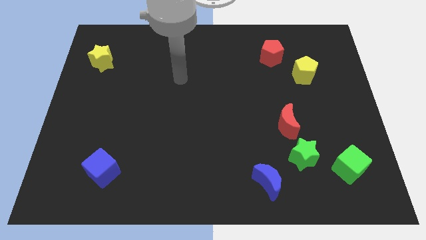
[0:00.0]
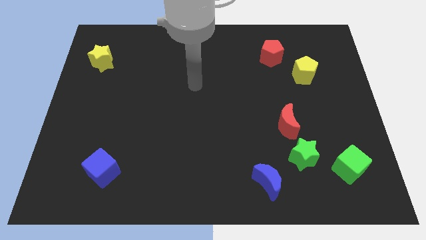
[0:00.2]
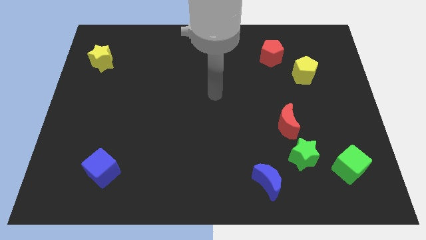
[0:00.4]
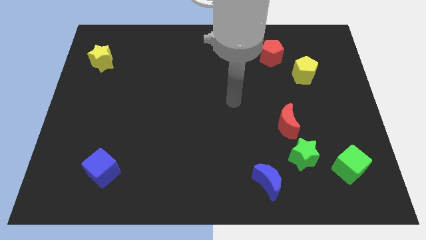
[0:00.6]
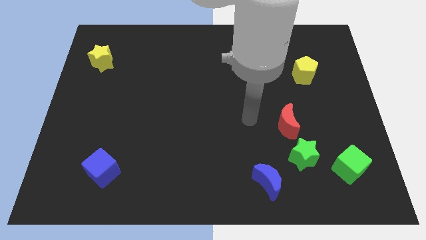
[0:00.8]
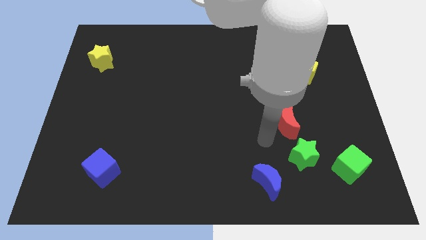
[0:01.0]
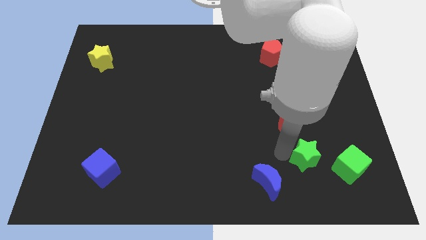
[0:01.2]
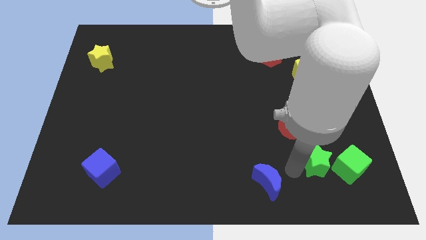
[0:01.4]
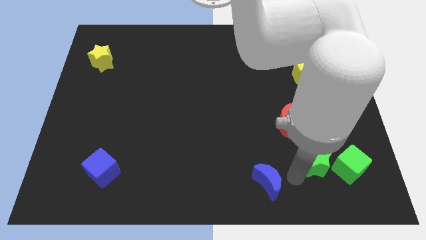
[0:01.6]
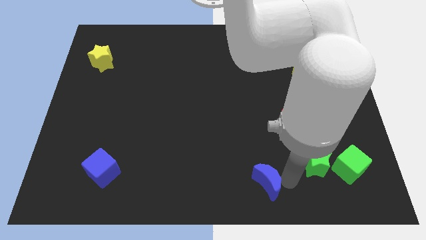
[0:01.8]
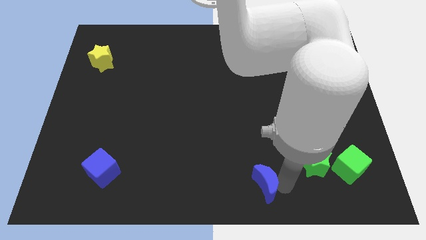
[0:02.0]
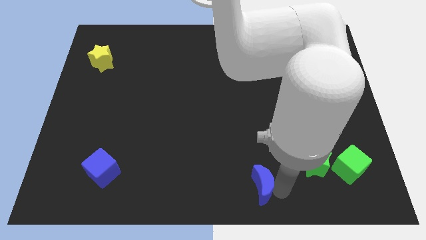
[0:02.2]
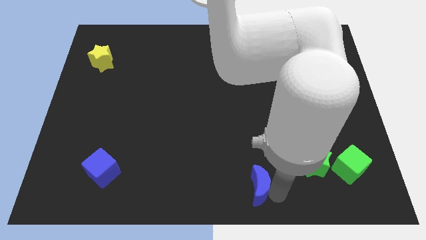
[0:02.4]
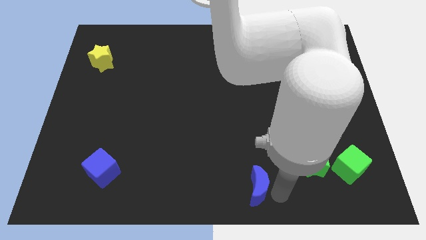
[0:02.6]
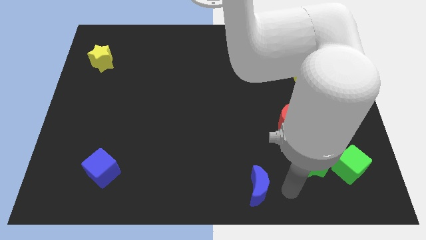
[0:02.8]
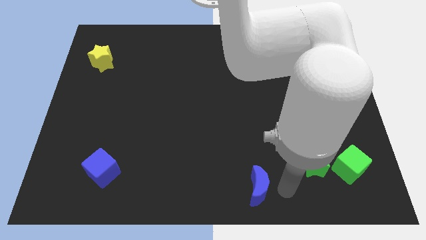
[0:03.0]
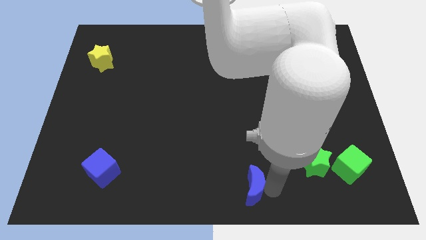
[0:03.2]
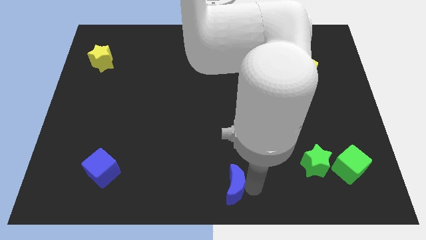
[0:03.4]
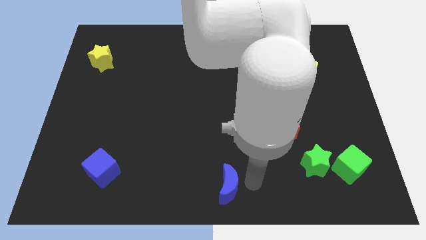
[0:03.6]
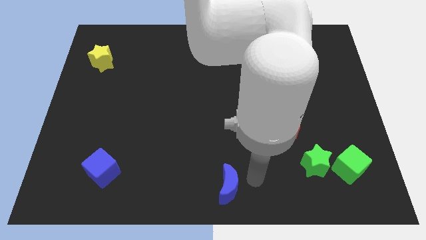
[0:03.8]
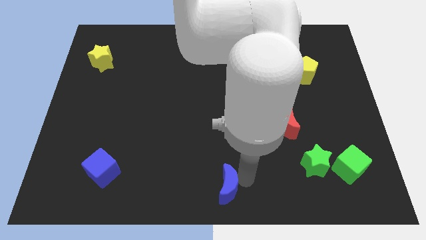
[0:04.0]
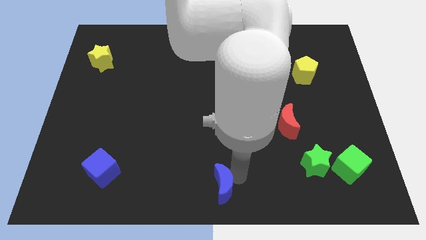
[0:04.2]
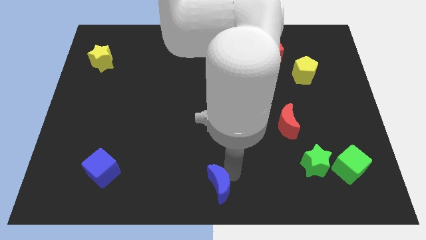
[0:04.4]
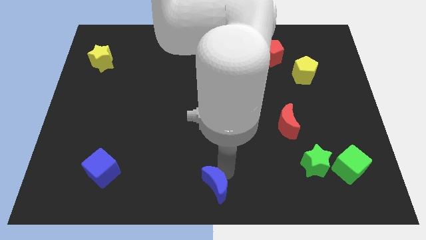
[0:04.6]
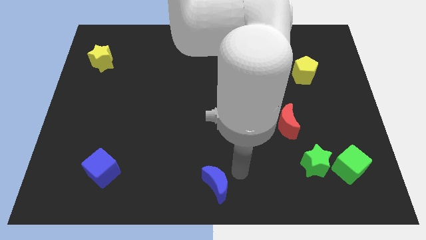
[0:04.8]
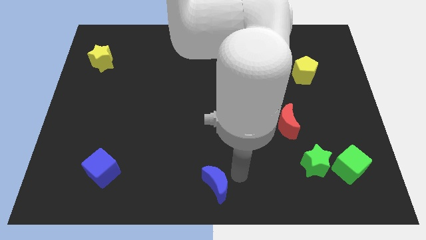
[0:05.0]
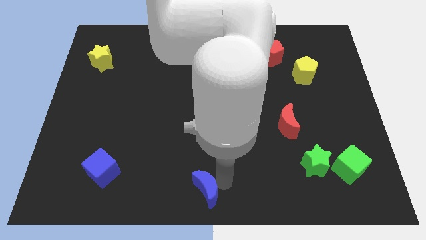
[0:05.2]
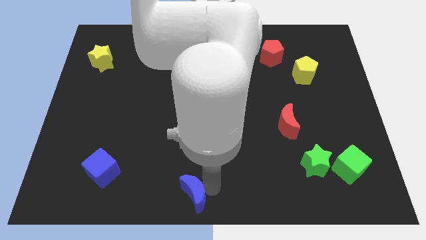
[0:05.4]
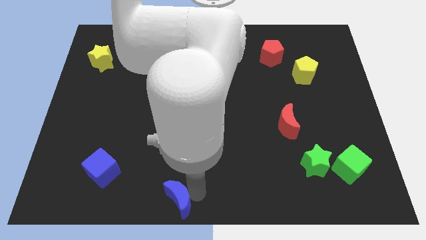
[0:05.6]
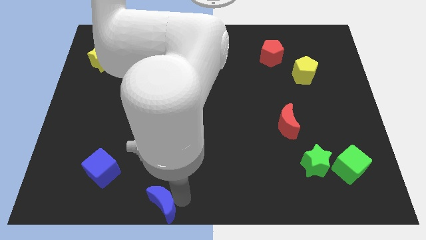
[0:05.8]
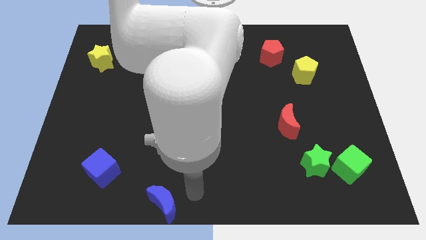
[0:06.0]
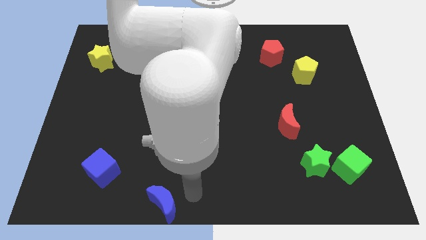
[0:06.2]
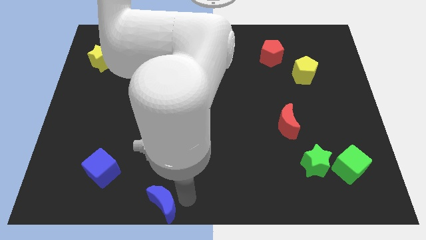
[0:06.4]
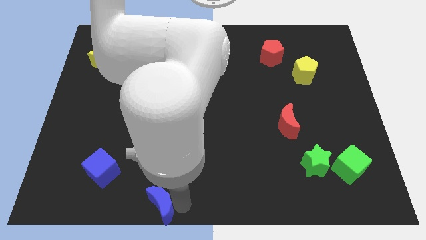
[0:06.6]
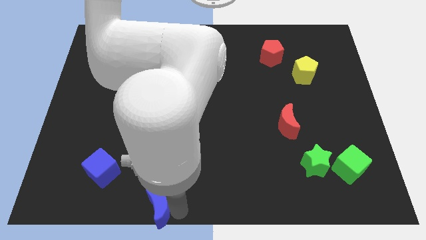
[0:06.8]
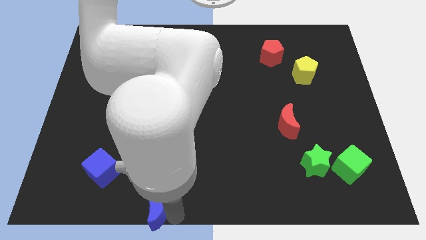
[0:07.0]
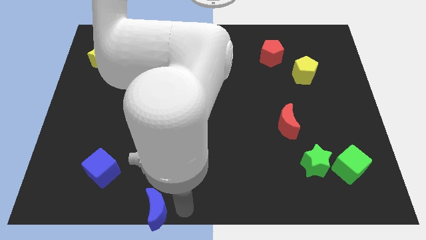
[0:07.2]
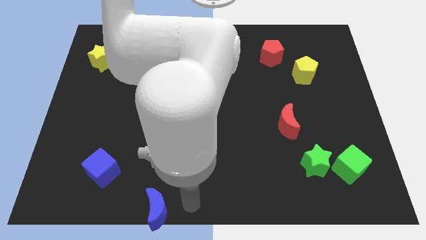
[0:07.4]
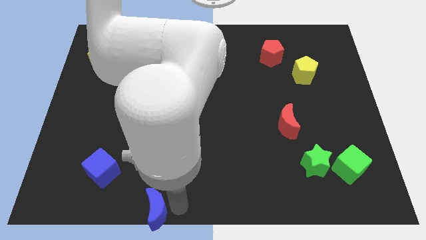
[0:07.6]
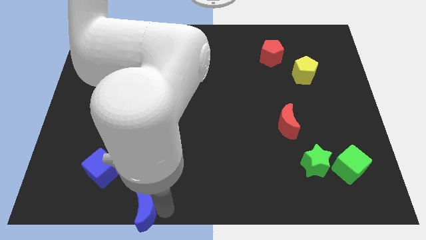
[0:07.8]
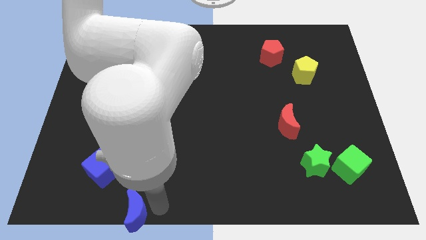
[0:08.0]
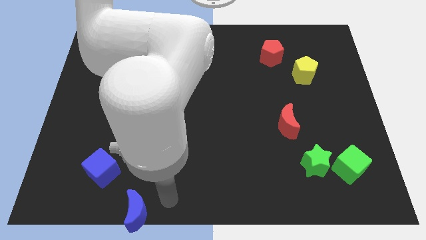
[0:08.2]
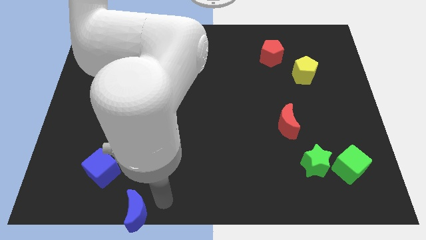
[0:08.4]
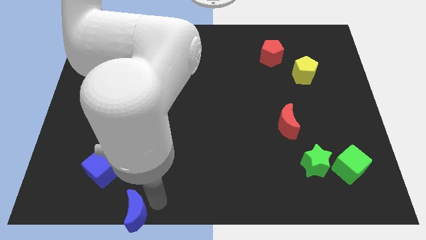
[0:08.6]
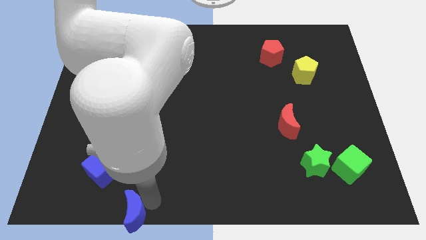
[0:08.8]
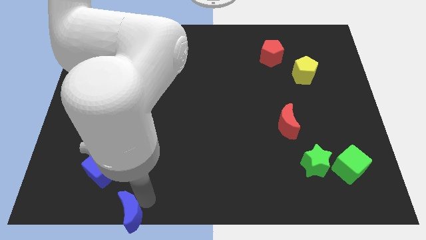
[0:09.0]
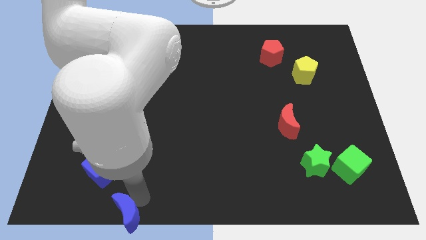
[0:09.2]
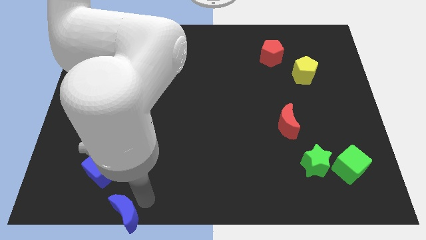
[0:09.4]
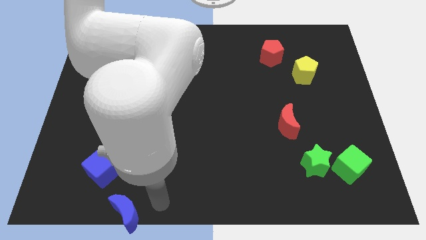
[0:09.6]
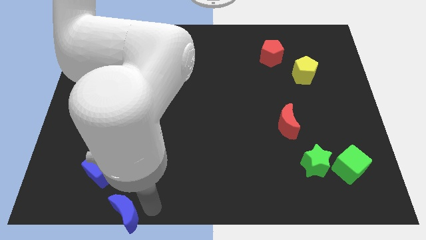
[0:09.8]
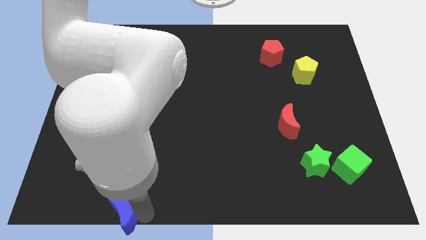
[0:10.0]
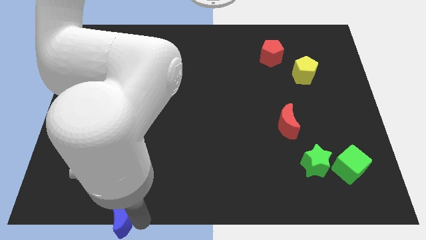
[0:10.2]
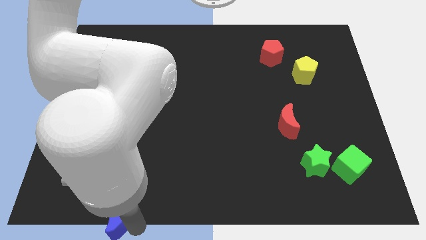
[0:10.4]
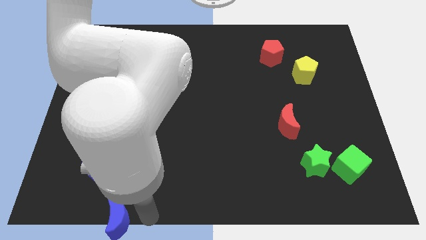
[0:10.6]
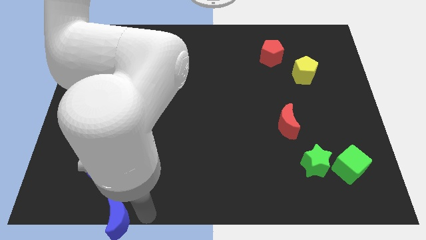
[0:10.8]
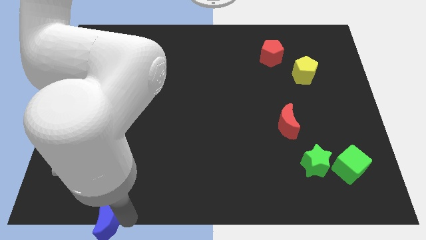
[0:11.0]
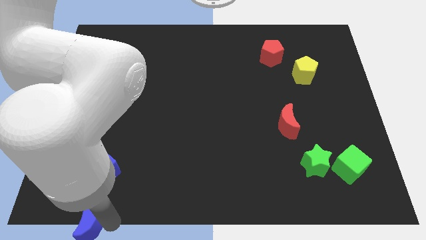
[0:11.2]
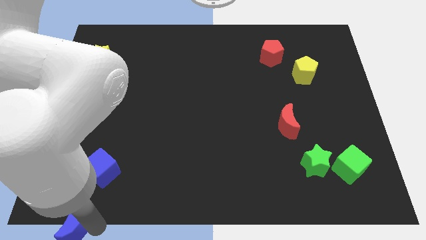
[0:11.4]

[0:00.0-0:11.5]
push the blue moon to the lower left corner

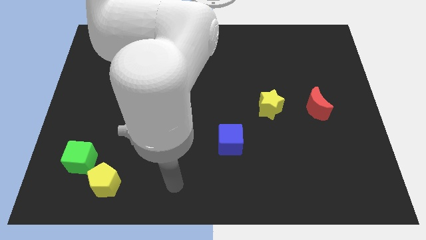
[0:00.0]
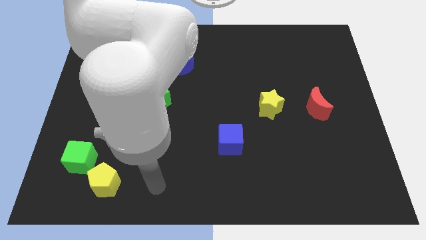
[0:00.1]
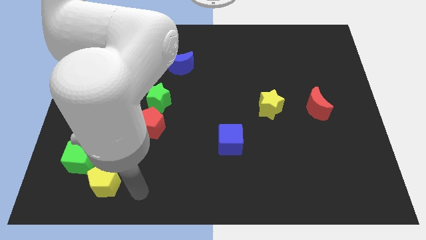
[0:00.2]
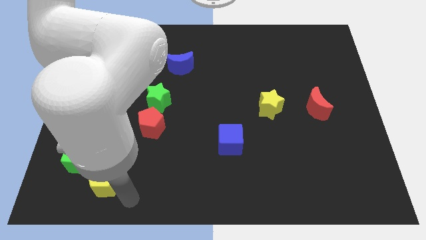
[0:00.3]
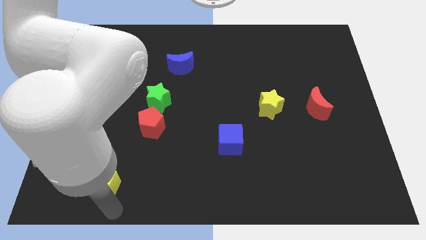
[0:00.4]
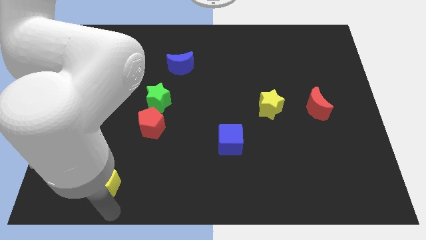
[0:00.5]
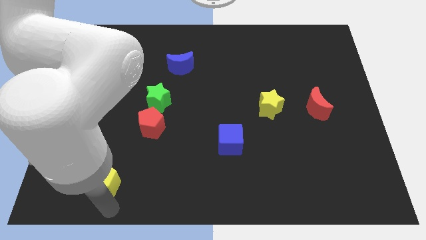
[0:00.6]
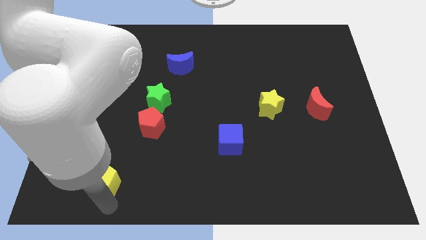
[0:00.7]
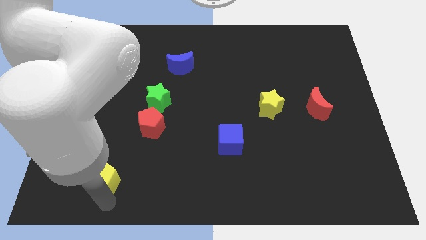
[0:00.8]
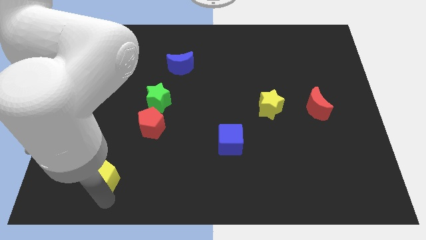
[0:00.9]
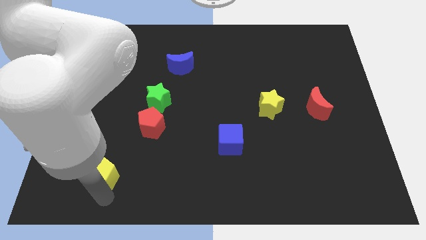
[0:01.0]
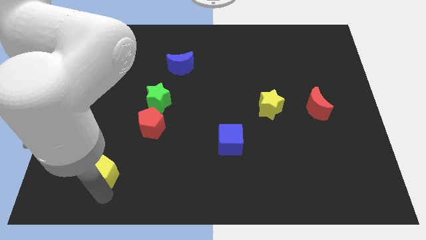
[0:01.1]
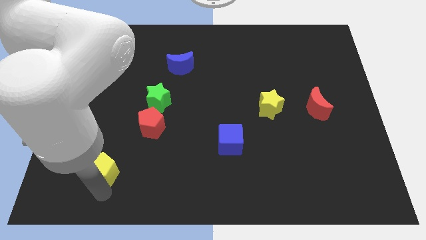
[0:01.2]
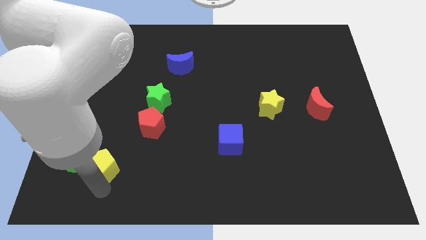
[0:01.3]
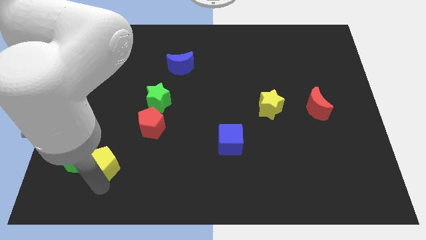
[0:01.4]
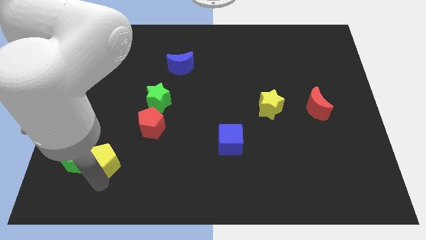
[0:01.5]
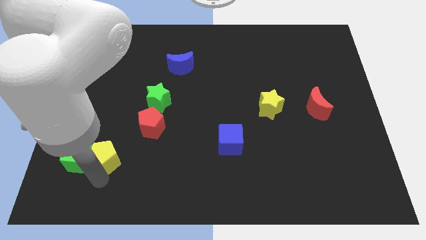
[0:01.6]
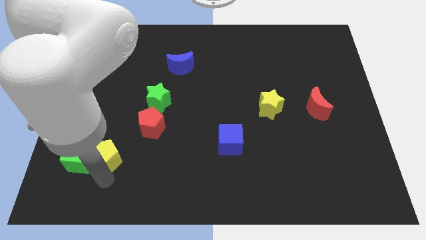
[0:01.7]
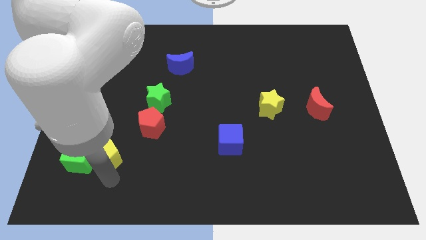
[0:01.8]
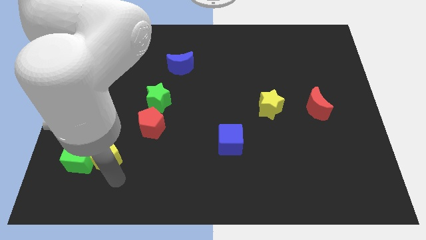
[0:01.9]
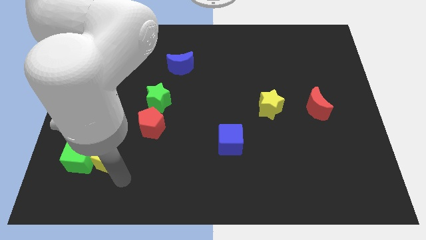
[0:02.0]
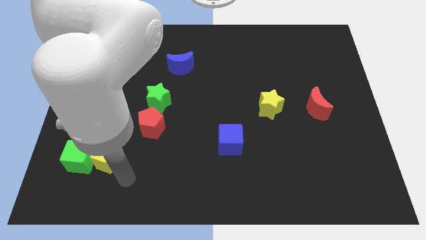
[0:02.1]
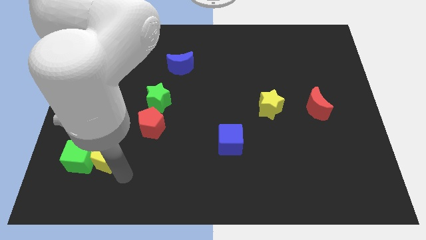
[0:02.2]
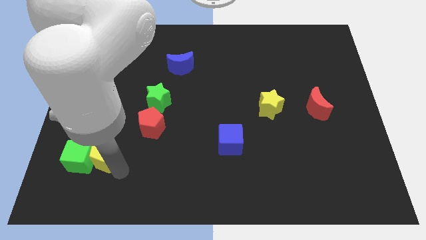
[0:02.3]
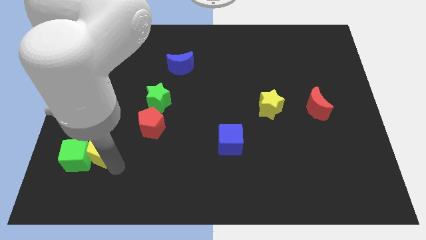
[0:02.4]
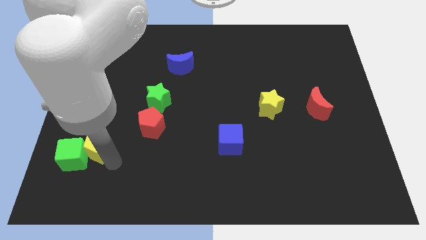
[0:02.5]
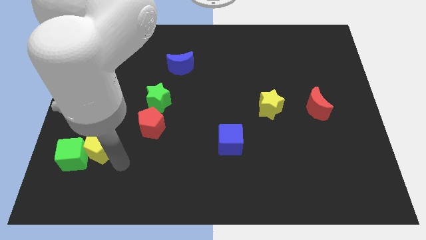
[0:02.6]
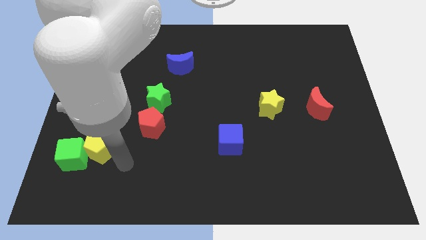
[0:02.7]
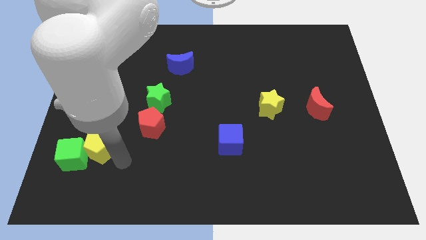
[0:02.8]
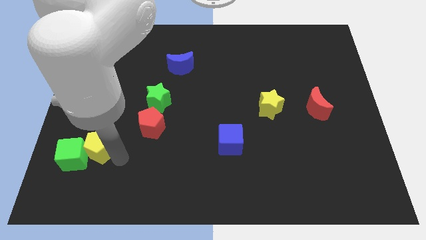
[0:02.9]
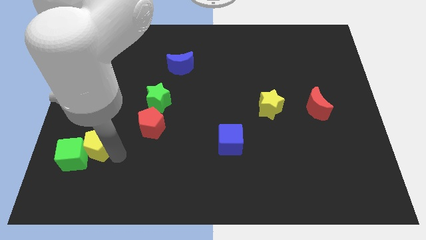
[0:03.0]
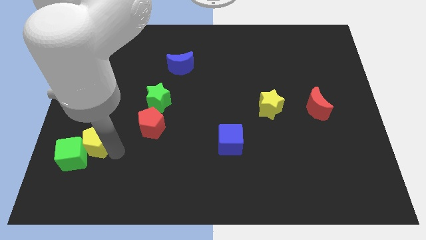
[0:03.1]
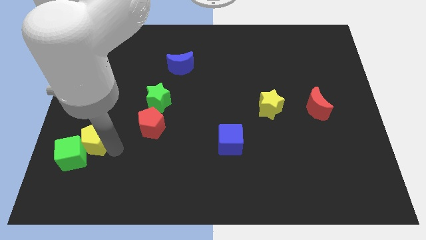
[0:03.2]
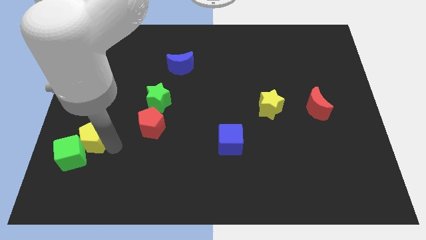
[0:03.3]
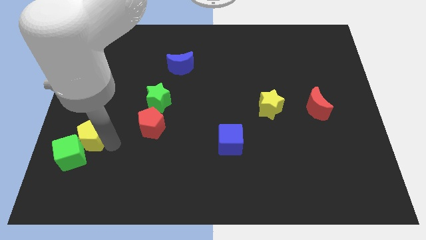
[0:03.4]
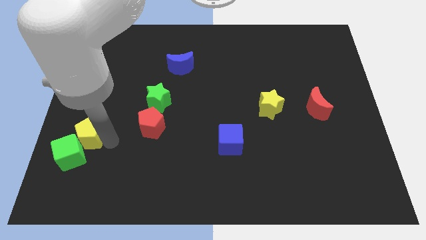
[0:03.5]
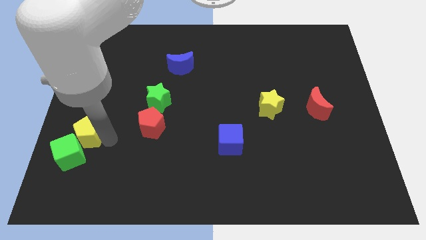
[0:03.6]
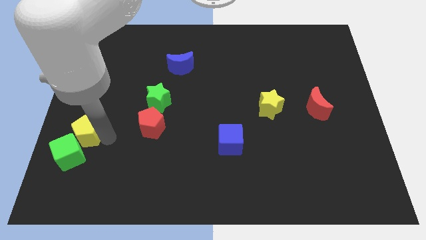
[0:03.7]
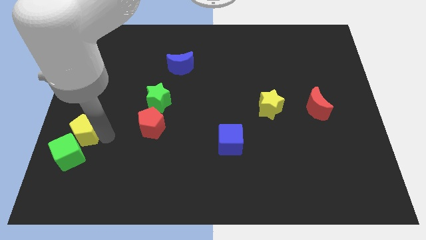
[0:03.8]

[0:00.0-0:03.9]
slide the yellow pentagon to the left side
